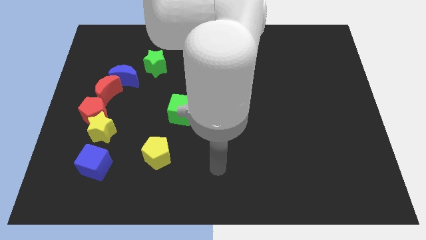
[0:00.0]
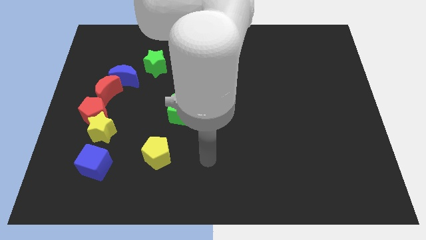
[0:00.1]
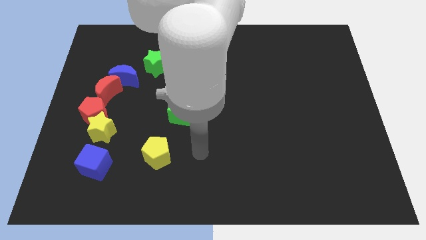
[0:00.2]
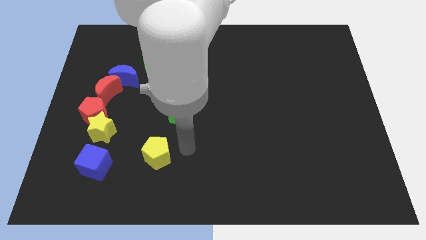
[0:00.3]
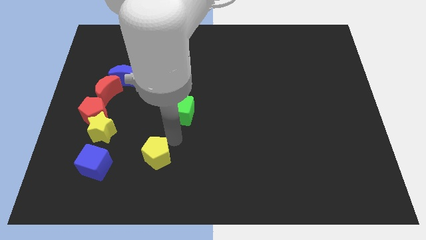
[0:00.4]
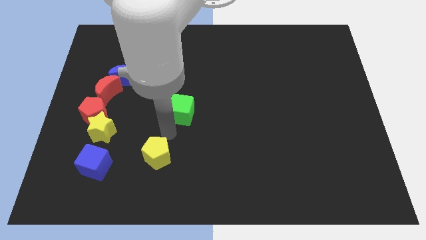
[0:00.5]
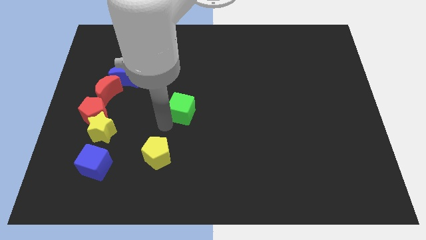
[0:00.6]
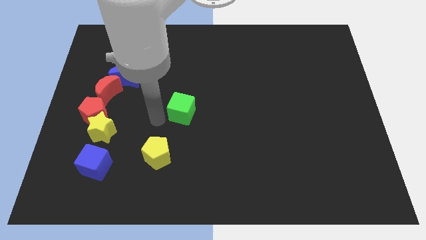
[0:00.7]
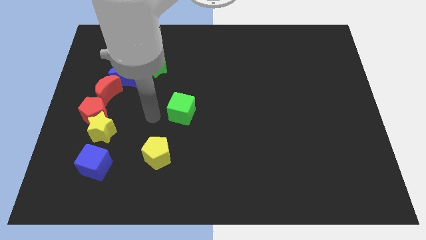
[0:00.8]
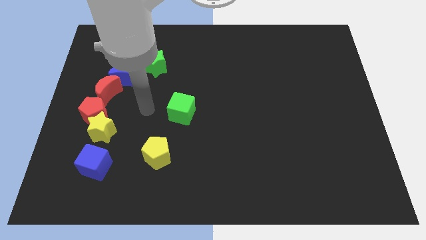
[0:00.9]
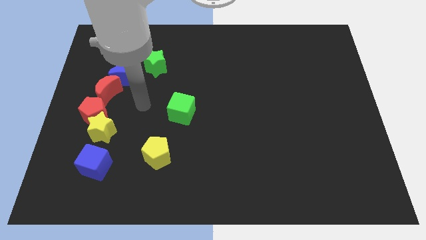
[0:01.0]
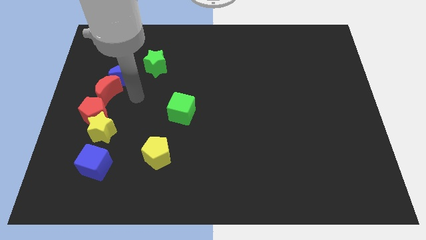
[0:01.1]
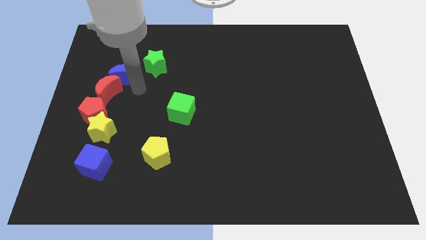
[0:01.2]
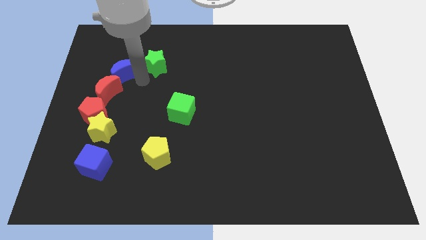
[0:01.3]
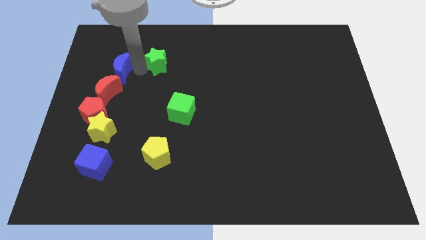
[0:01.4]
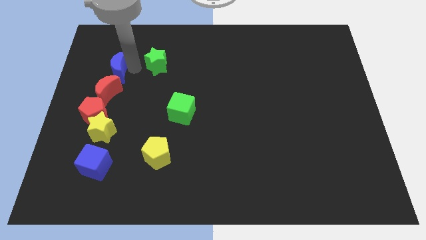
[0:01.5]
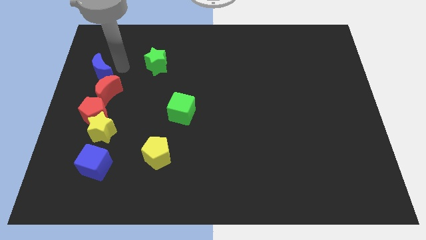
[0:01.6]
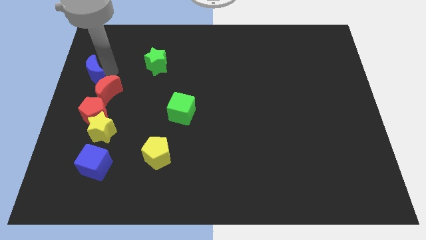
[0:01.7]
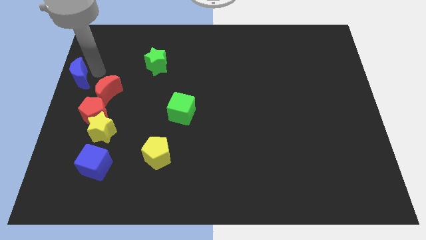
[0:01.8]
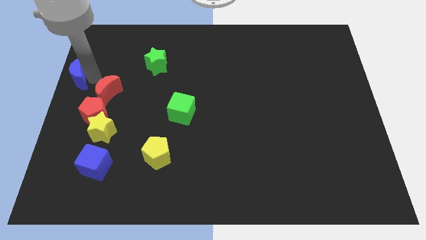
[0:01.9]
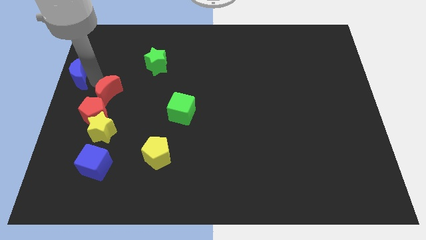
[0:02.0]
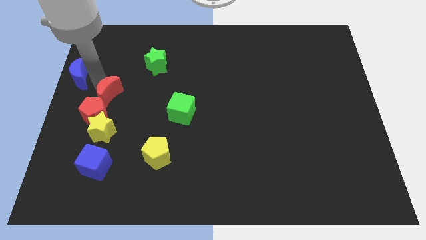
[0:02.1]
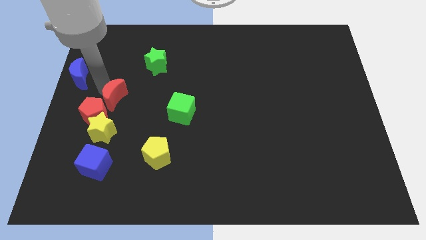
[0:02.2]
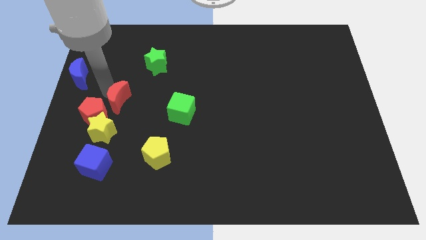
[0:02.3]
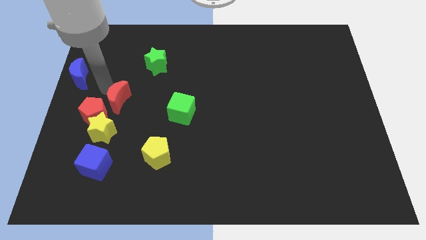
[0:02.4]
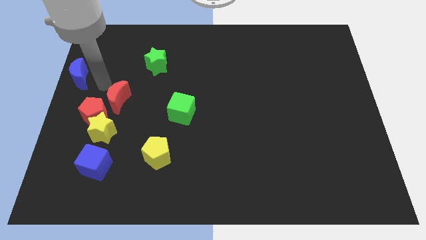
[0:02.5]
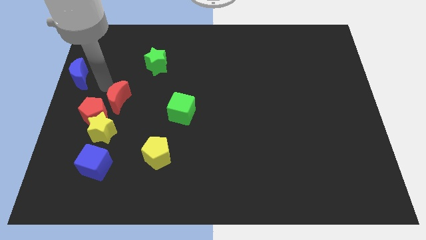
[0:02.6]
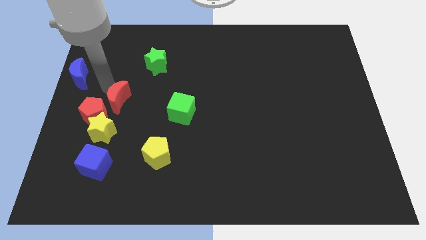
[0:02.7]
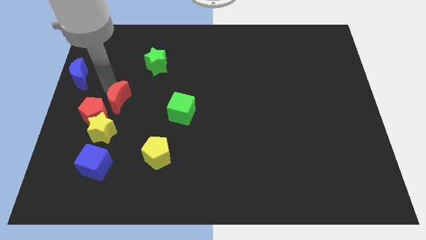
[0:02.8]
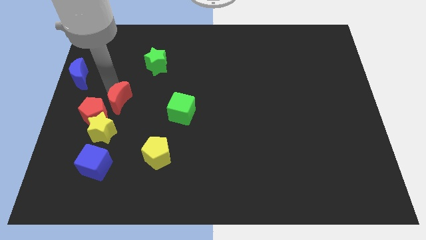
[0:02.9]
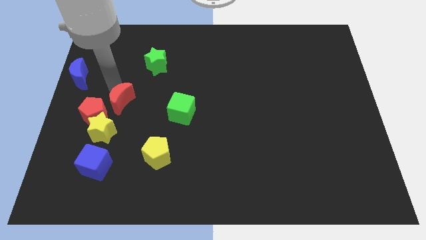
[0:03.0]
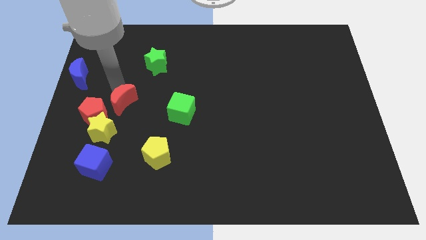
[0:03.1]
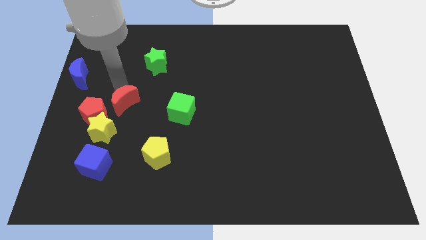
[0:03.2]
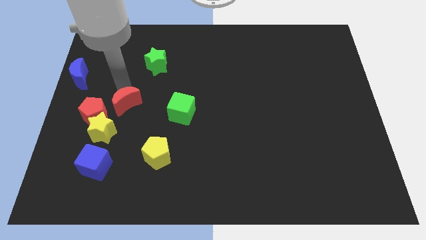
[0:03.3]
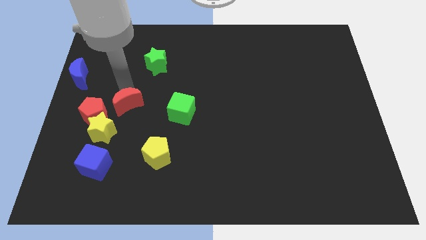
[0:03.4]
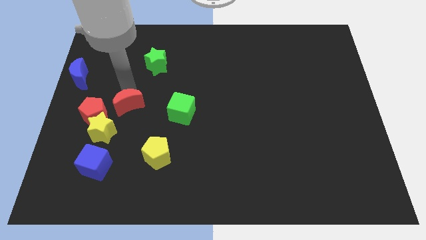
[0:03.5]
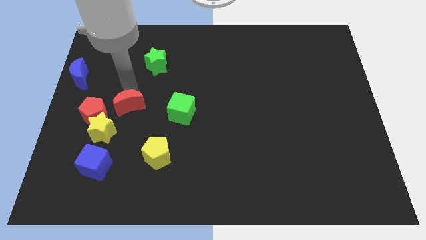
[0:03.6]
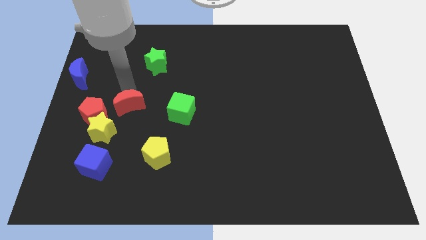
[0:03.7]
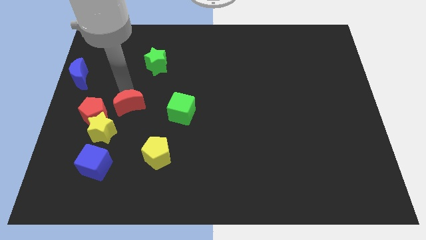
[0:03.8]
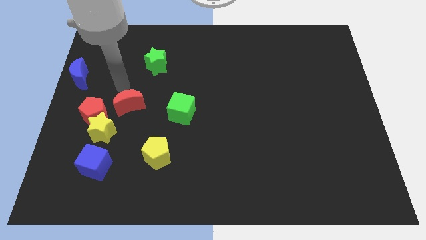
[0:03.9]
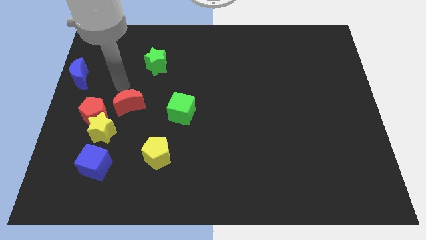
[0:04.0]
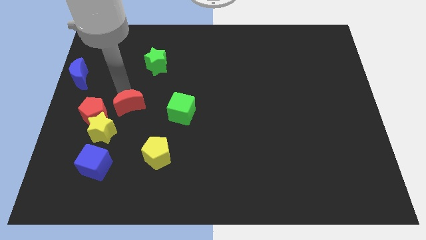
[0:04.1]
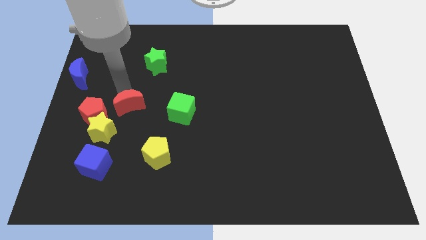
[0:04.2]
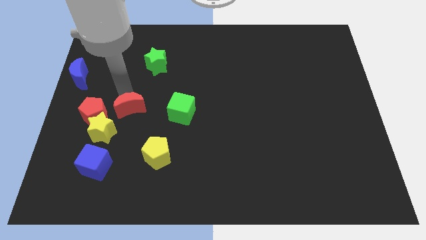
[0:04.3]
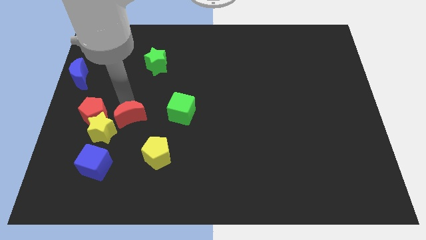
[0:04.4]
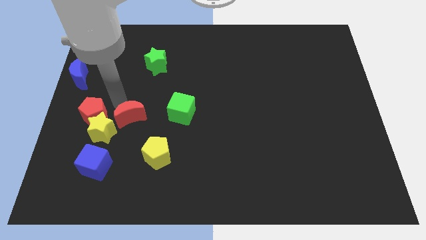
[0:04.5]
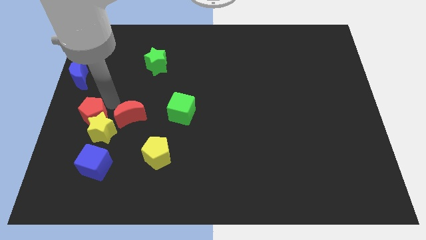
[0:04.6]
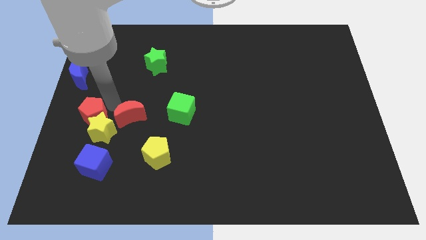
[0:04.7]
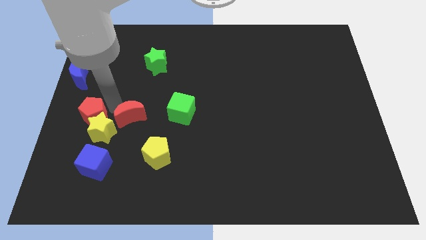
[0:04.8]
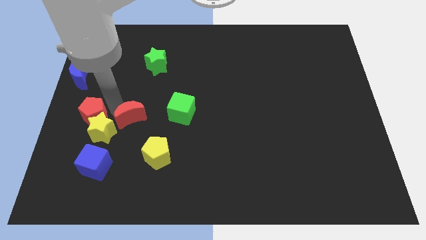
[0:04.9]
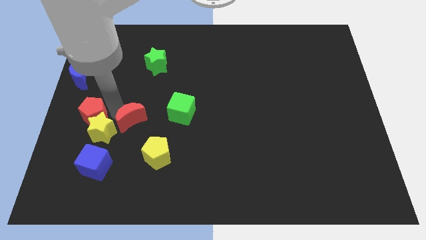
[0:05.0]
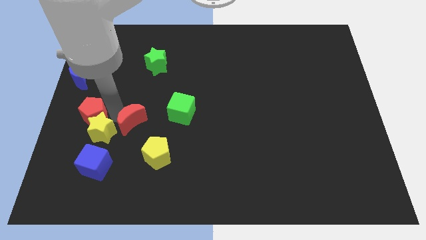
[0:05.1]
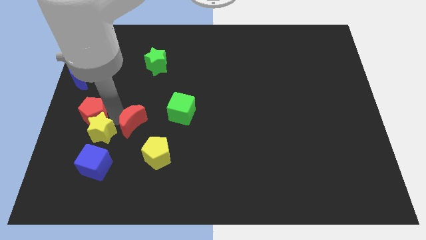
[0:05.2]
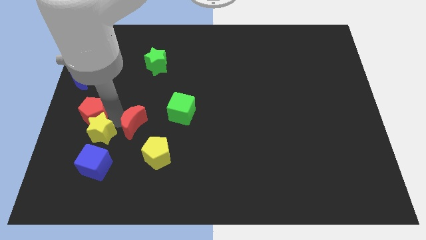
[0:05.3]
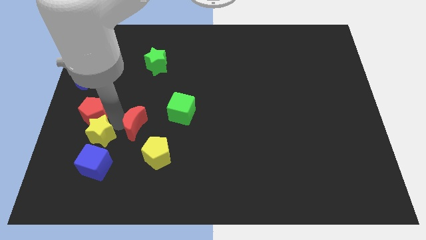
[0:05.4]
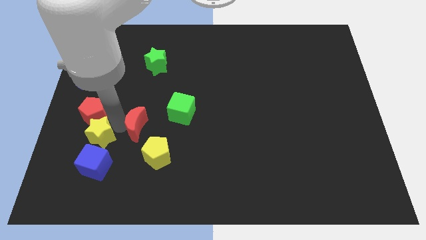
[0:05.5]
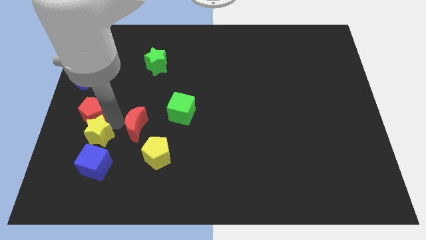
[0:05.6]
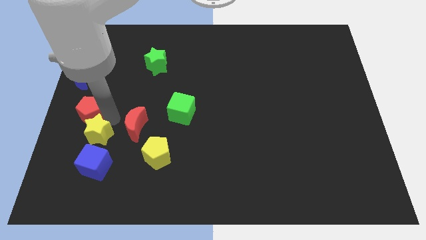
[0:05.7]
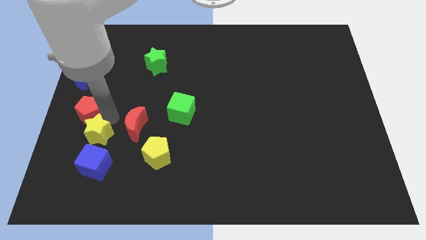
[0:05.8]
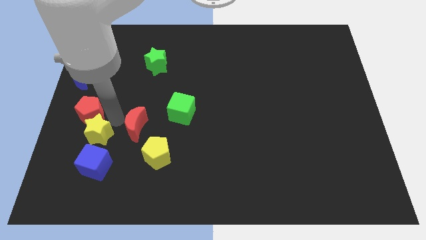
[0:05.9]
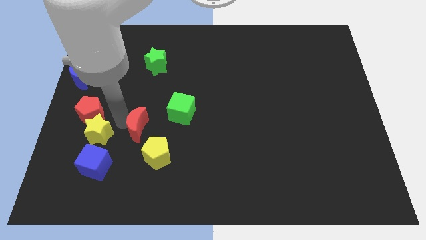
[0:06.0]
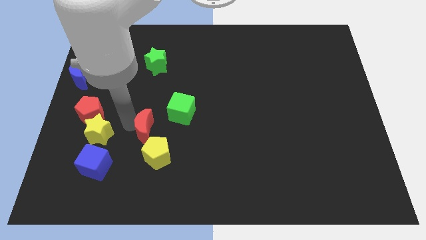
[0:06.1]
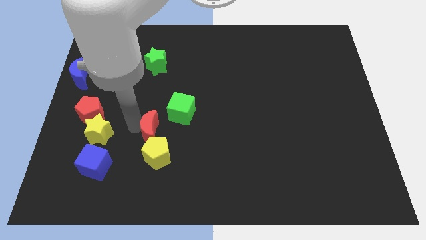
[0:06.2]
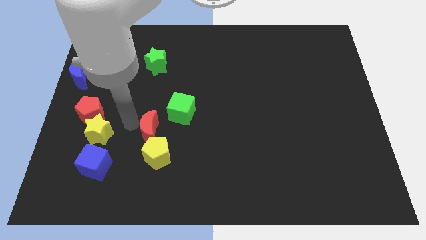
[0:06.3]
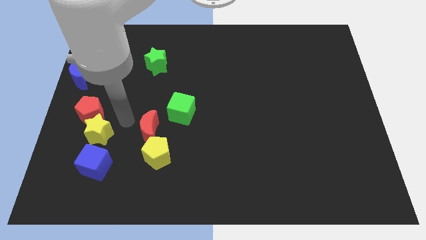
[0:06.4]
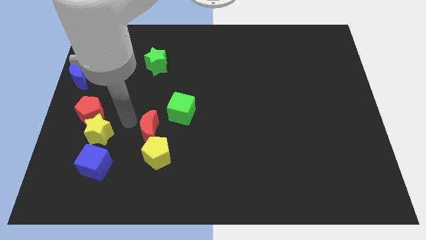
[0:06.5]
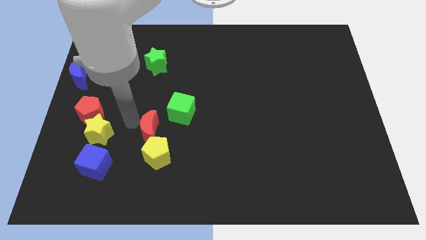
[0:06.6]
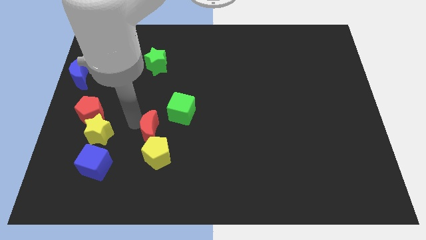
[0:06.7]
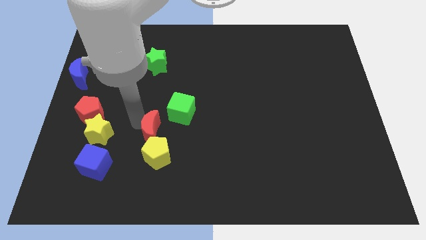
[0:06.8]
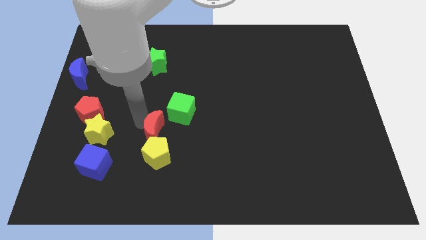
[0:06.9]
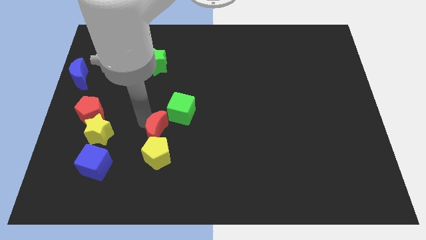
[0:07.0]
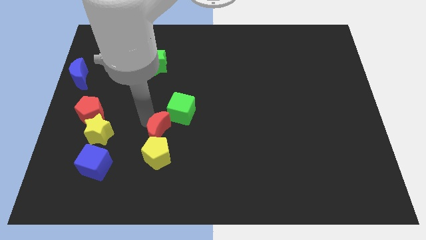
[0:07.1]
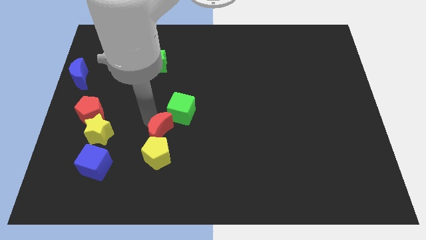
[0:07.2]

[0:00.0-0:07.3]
move the red moon to the bottom of the green cube
